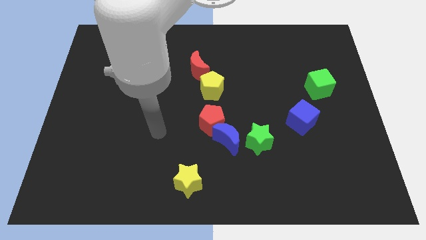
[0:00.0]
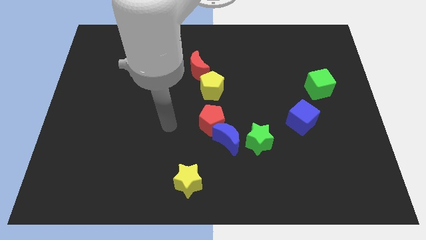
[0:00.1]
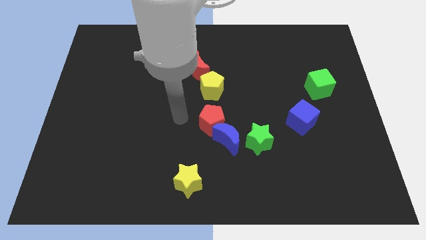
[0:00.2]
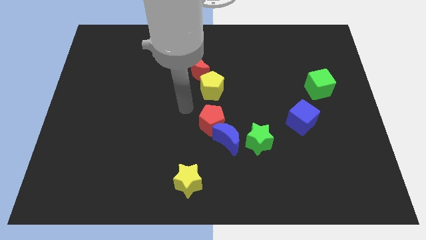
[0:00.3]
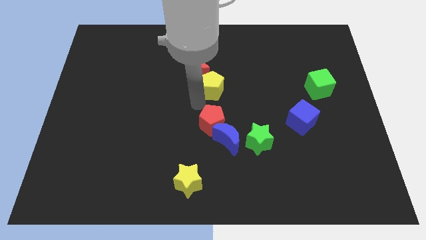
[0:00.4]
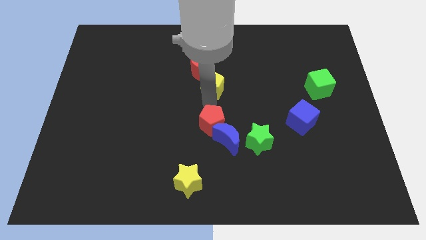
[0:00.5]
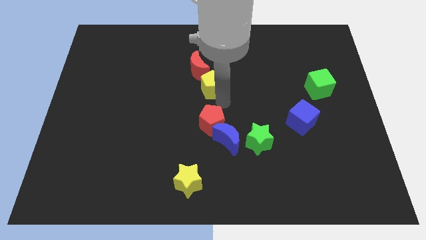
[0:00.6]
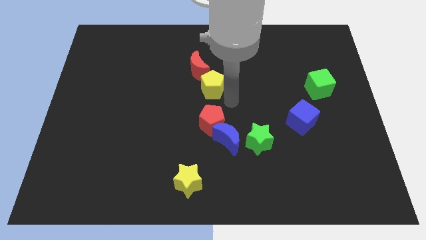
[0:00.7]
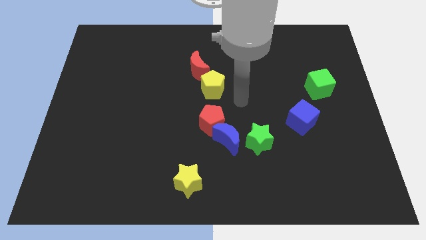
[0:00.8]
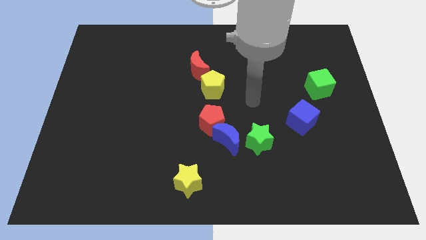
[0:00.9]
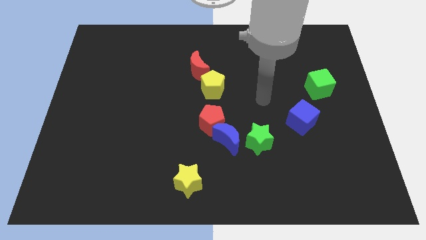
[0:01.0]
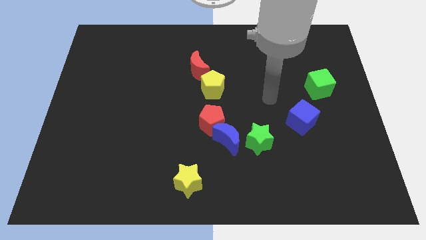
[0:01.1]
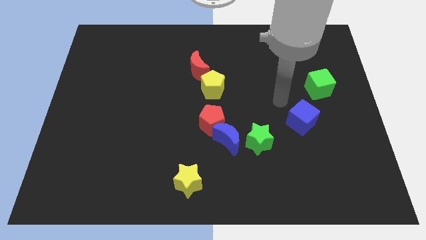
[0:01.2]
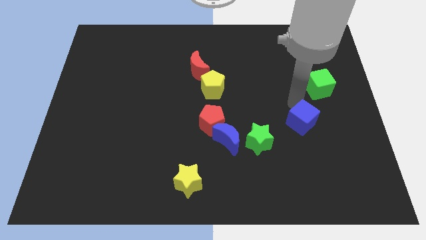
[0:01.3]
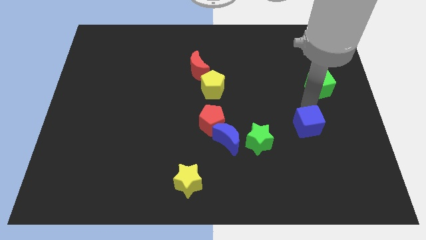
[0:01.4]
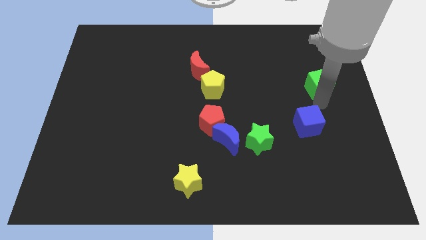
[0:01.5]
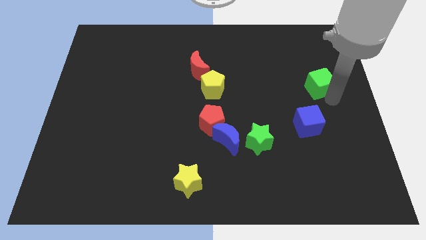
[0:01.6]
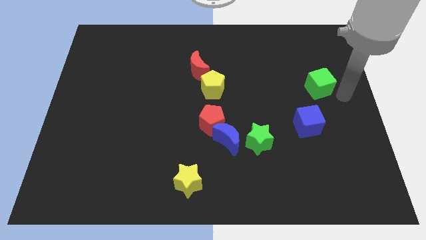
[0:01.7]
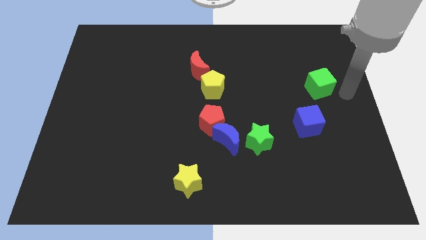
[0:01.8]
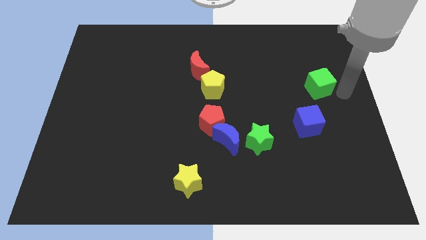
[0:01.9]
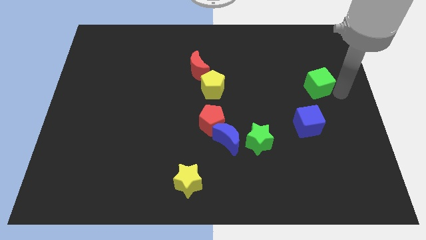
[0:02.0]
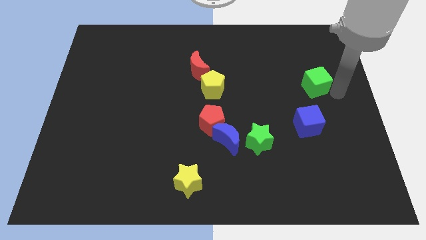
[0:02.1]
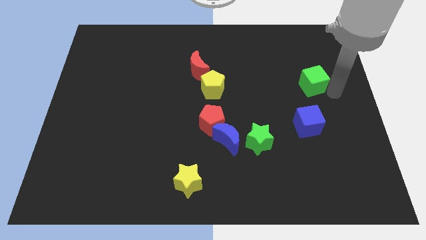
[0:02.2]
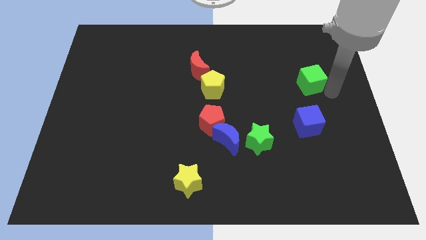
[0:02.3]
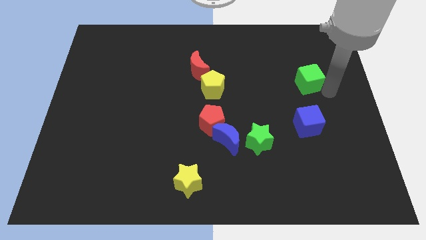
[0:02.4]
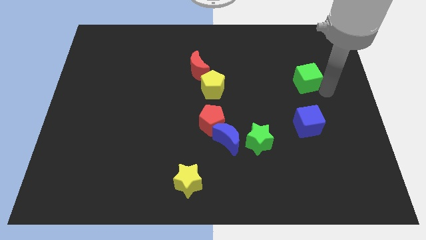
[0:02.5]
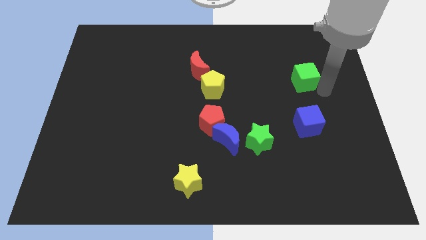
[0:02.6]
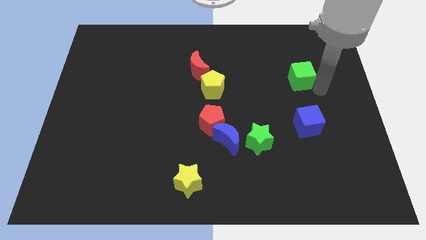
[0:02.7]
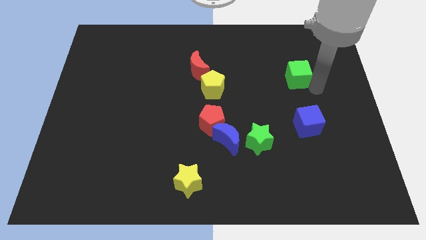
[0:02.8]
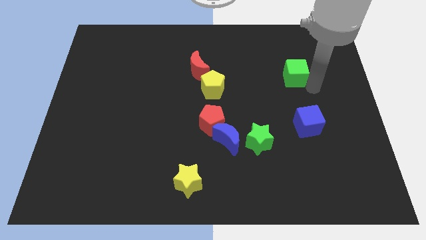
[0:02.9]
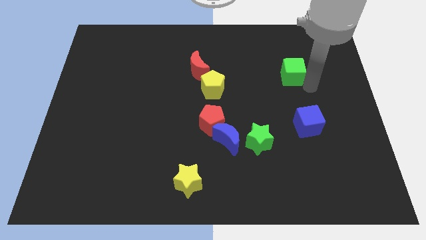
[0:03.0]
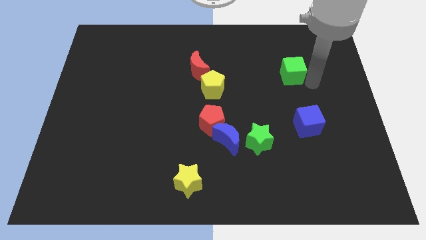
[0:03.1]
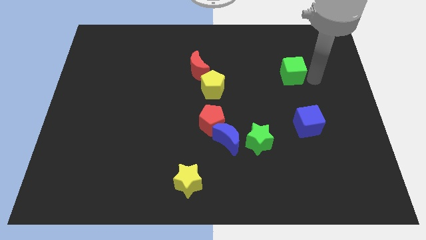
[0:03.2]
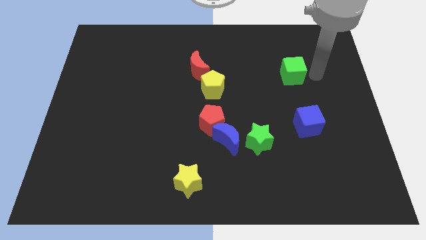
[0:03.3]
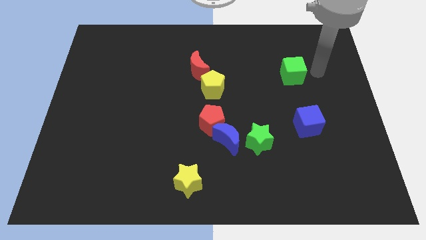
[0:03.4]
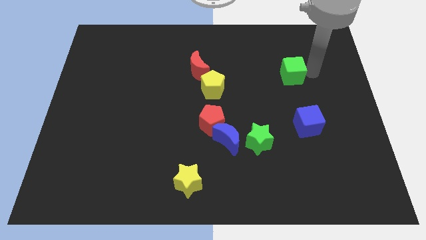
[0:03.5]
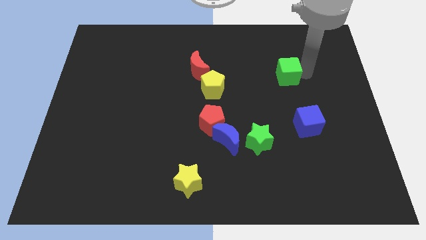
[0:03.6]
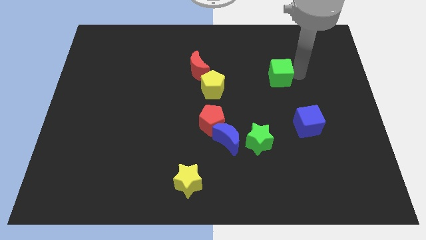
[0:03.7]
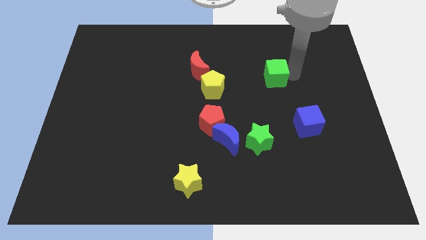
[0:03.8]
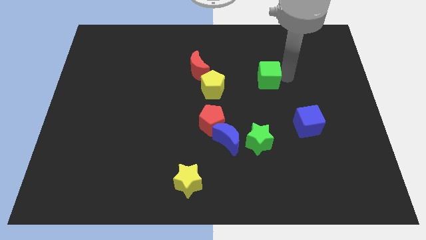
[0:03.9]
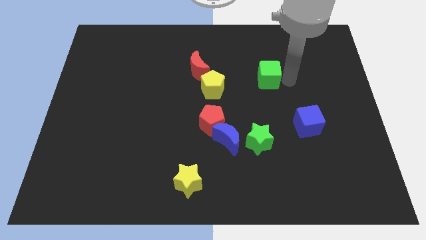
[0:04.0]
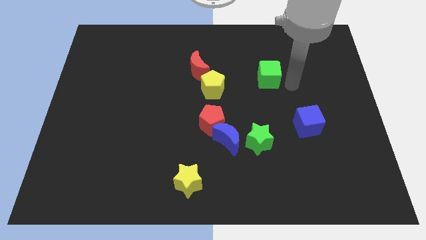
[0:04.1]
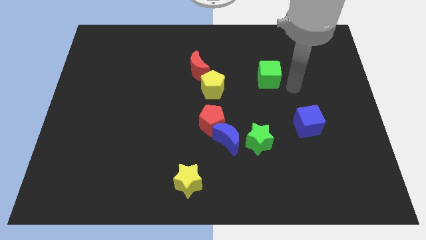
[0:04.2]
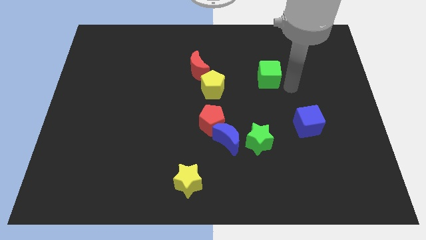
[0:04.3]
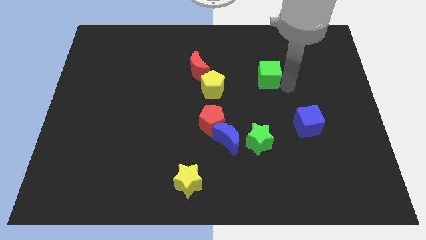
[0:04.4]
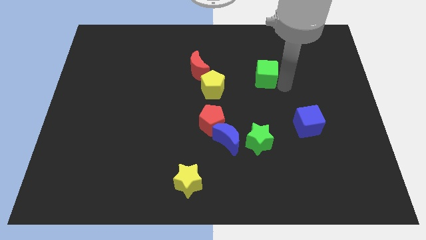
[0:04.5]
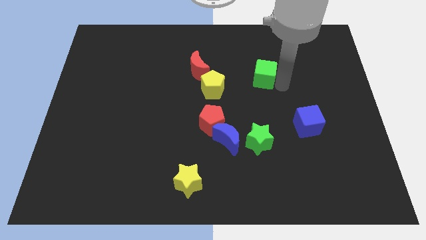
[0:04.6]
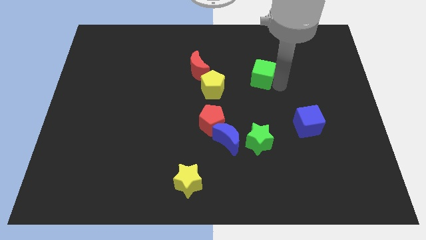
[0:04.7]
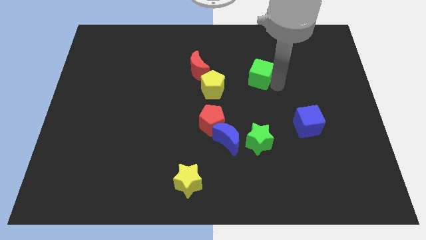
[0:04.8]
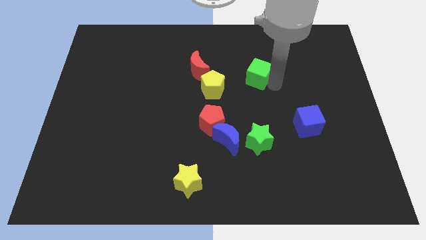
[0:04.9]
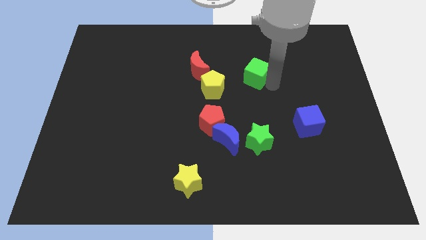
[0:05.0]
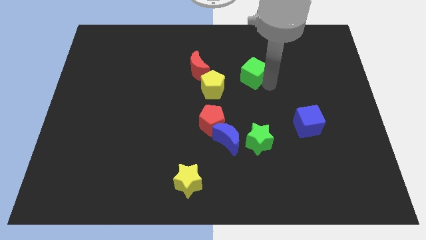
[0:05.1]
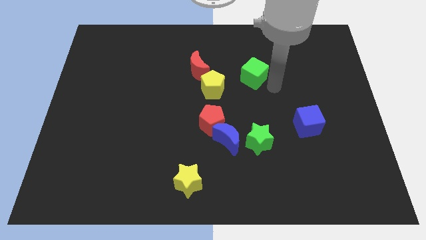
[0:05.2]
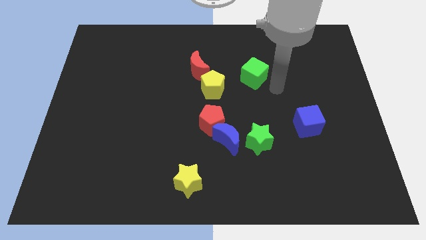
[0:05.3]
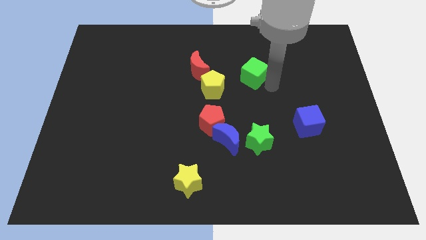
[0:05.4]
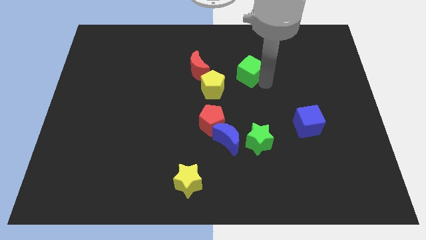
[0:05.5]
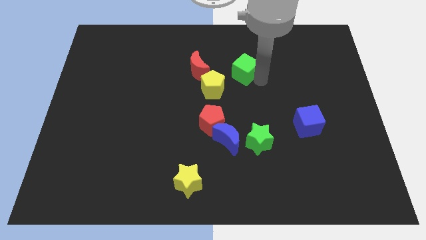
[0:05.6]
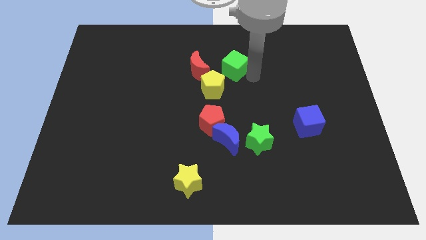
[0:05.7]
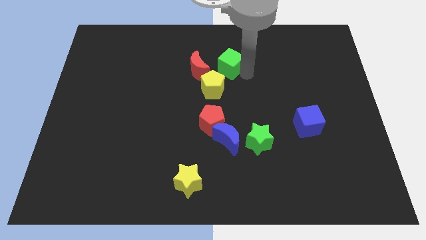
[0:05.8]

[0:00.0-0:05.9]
put the green cube above the yellow pentagon

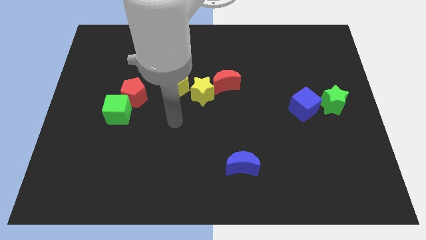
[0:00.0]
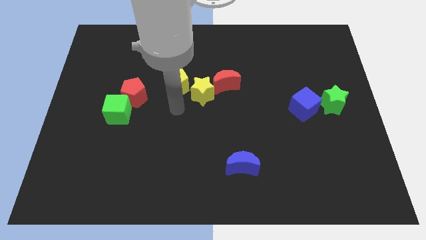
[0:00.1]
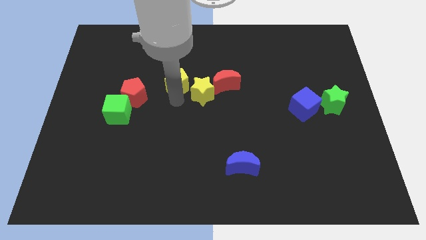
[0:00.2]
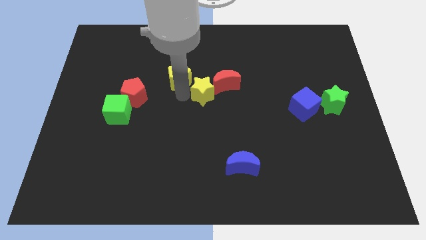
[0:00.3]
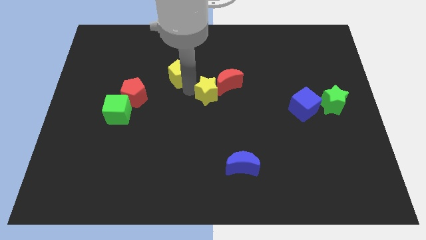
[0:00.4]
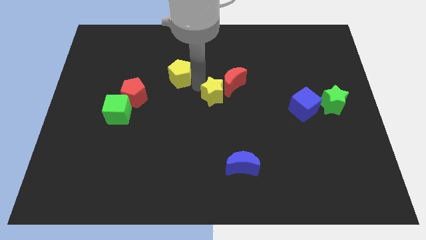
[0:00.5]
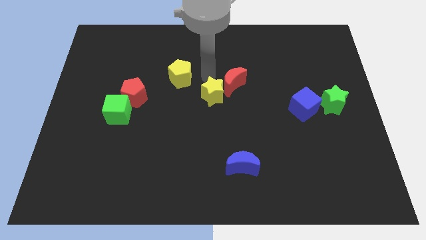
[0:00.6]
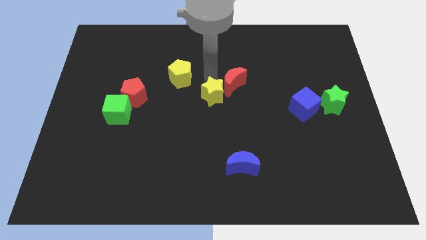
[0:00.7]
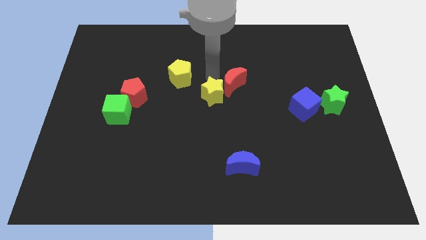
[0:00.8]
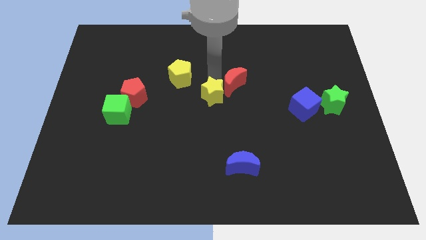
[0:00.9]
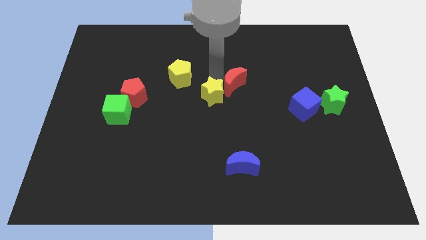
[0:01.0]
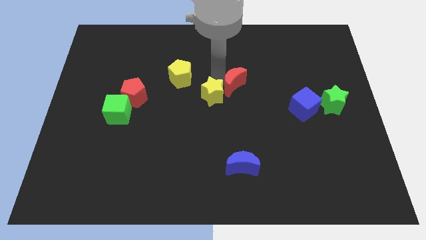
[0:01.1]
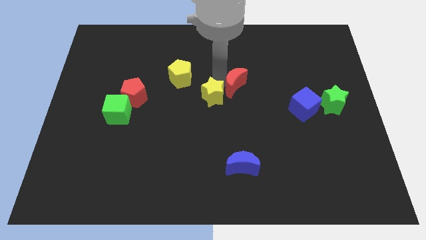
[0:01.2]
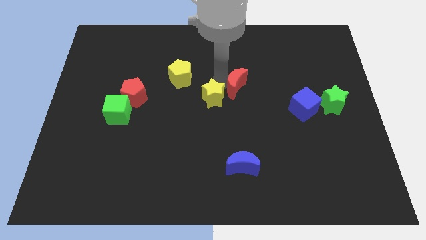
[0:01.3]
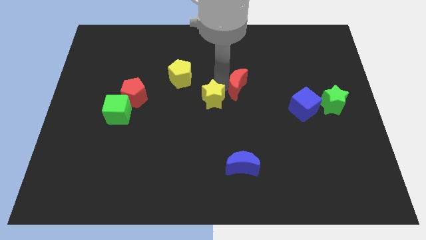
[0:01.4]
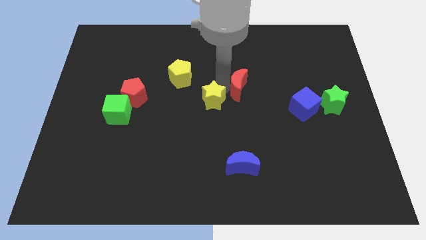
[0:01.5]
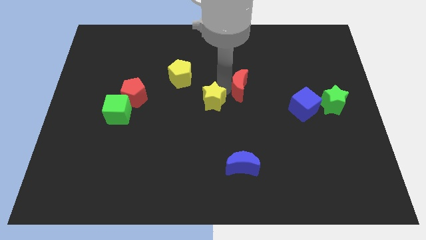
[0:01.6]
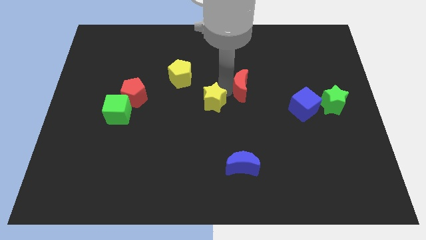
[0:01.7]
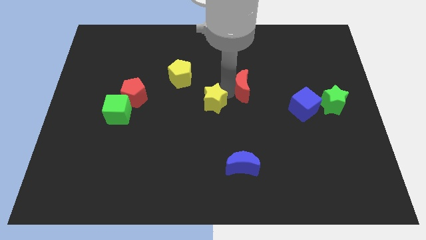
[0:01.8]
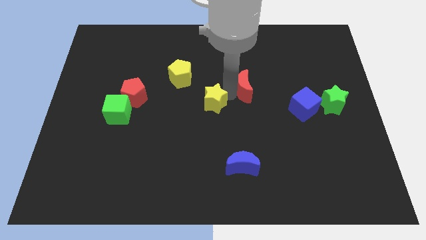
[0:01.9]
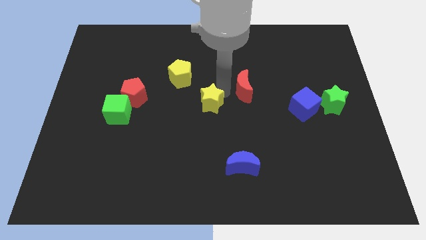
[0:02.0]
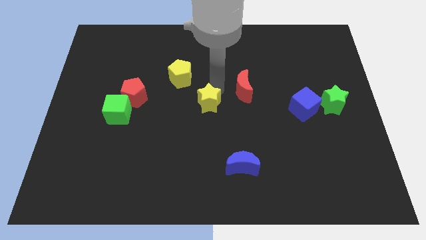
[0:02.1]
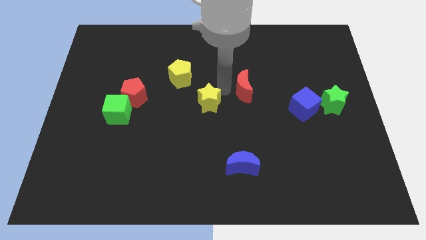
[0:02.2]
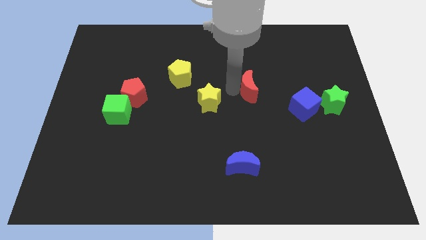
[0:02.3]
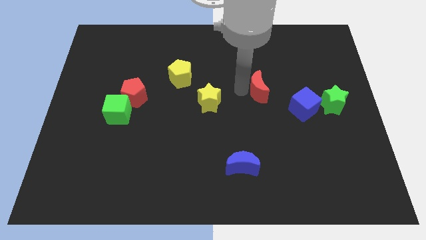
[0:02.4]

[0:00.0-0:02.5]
slide the red moon diagonally up and to the left of the blue cube
